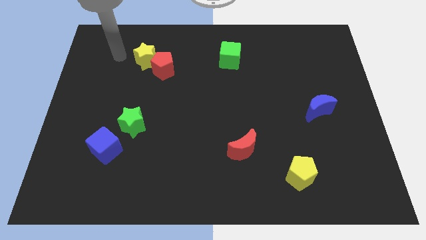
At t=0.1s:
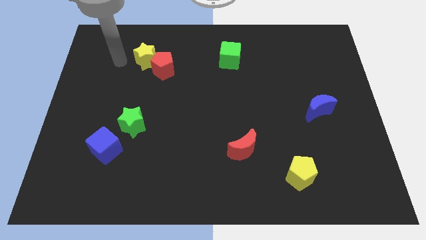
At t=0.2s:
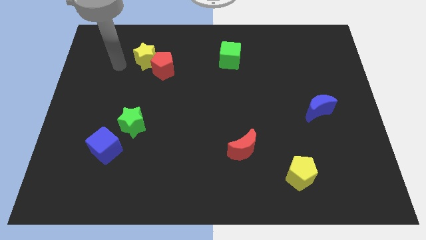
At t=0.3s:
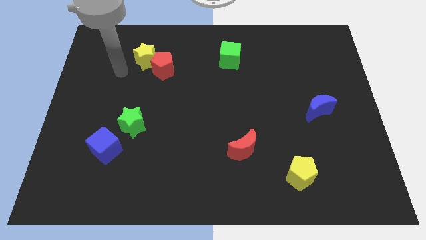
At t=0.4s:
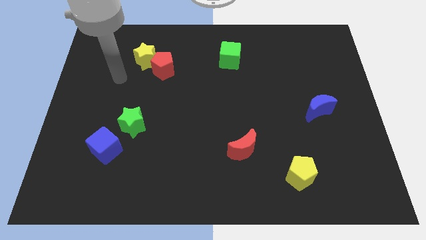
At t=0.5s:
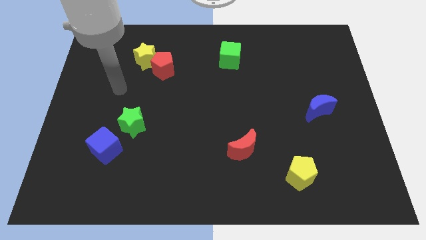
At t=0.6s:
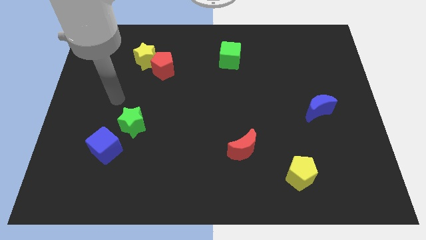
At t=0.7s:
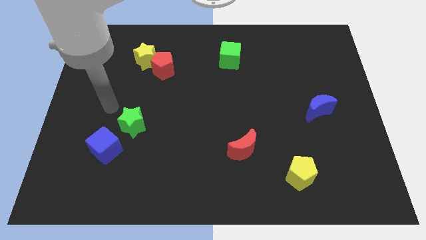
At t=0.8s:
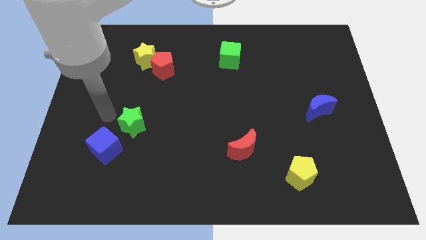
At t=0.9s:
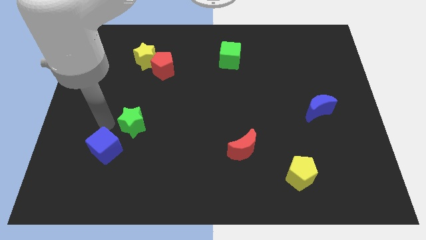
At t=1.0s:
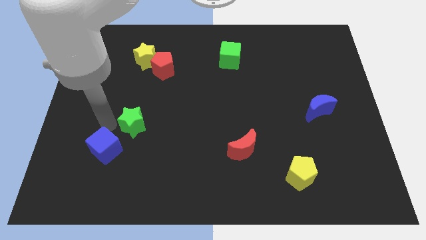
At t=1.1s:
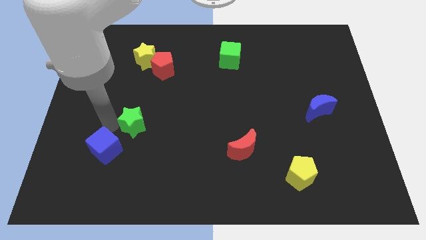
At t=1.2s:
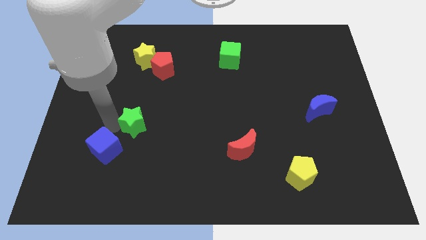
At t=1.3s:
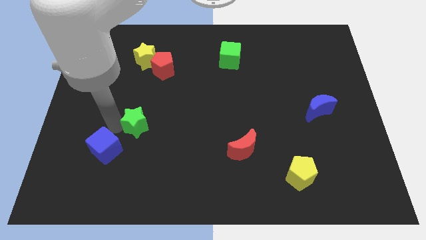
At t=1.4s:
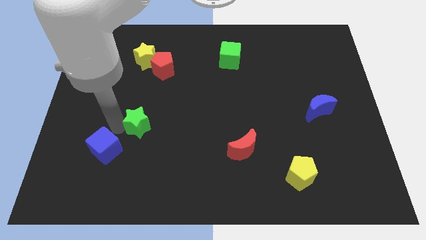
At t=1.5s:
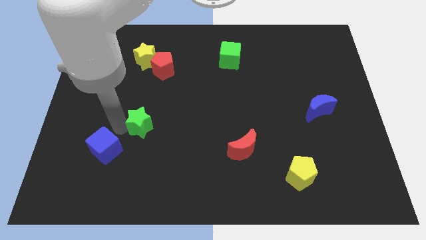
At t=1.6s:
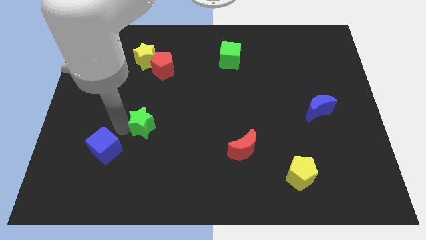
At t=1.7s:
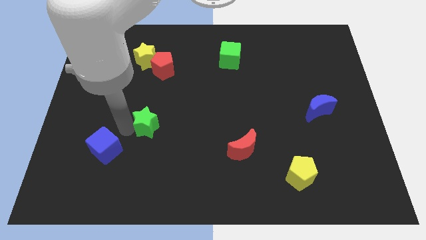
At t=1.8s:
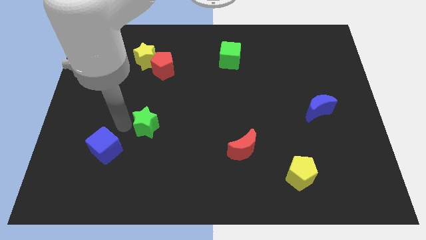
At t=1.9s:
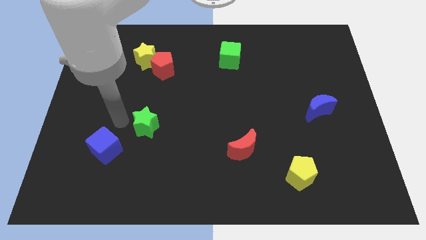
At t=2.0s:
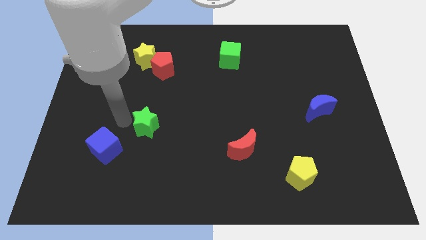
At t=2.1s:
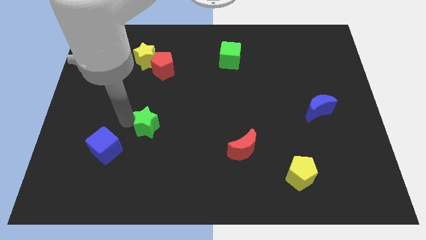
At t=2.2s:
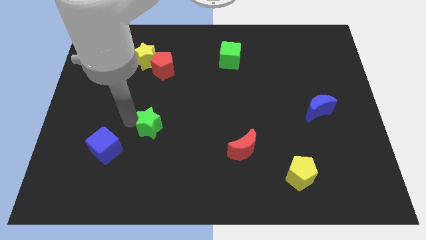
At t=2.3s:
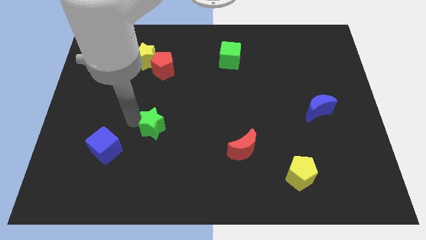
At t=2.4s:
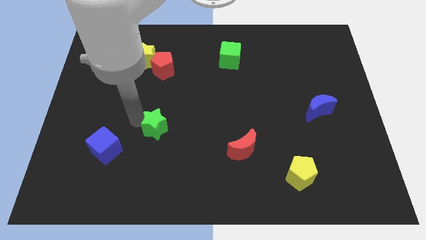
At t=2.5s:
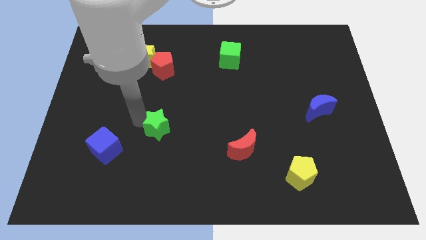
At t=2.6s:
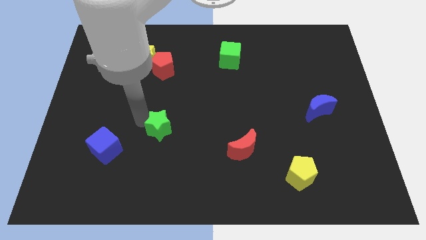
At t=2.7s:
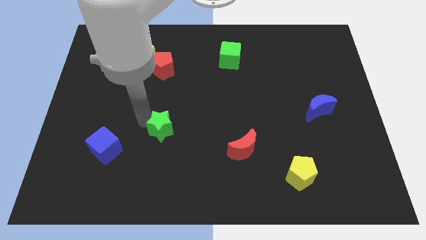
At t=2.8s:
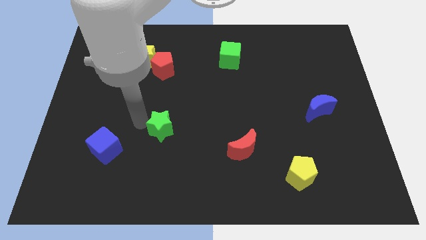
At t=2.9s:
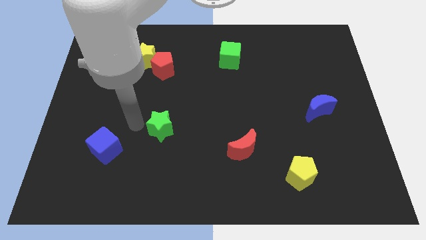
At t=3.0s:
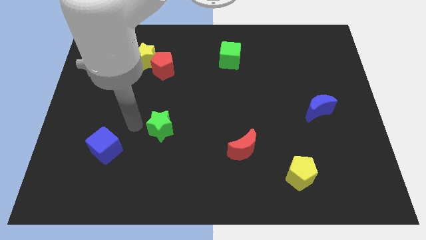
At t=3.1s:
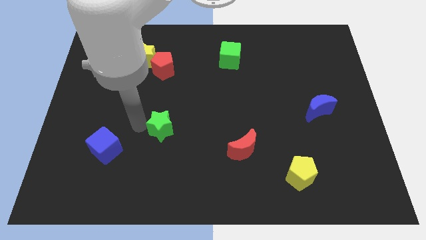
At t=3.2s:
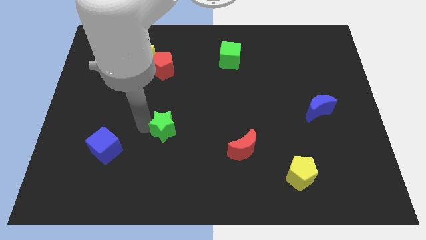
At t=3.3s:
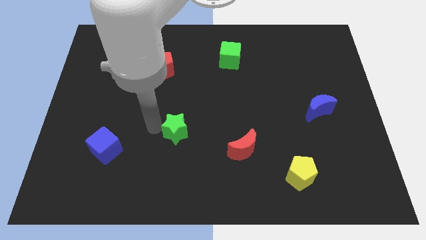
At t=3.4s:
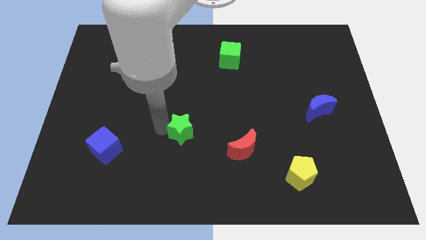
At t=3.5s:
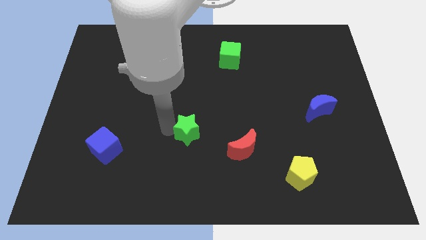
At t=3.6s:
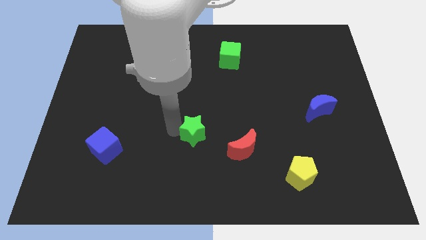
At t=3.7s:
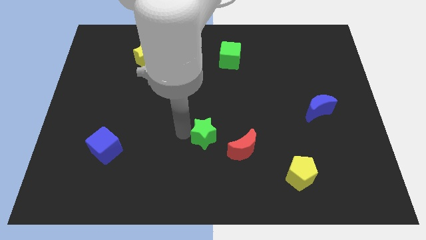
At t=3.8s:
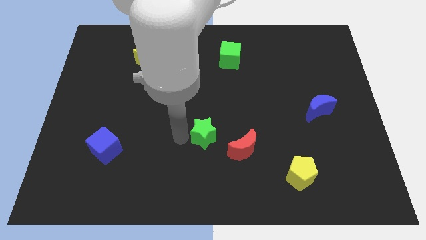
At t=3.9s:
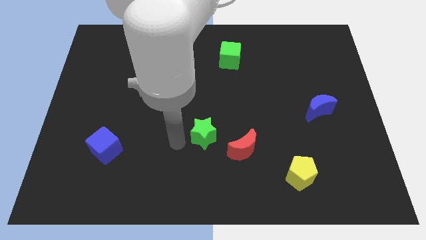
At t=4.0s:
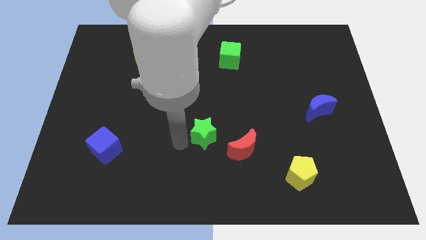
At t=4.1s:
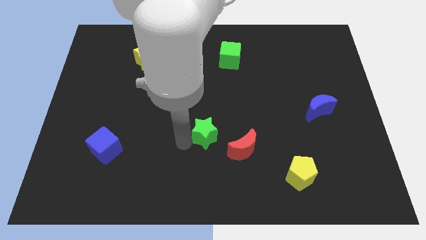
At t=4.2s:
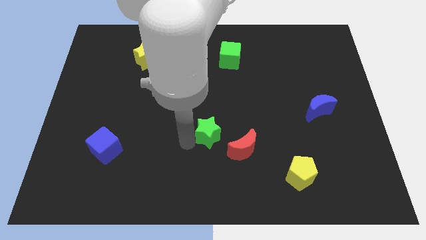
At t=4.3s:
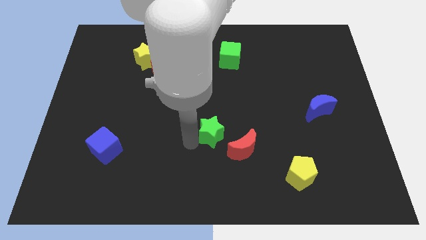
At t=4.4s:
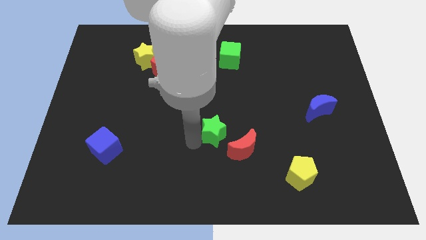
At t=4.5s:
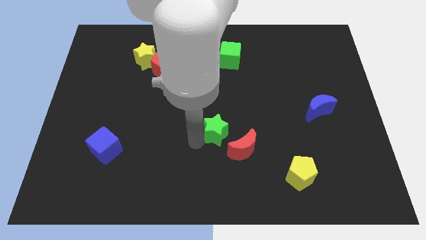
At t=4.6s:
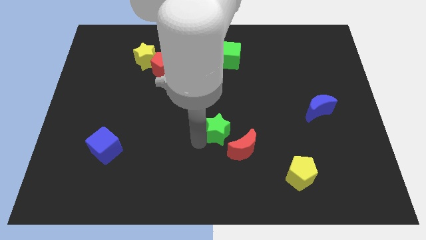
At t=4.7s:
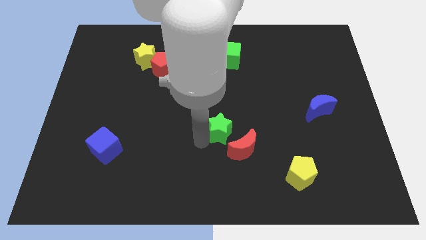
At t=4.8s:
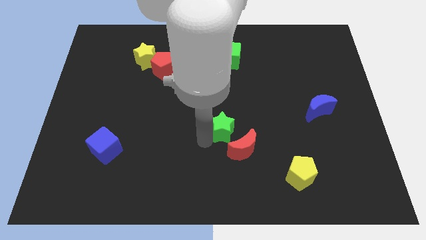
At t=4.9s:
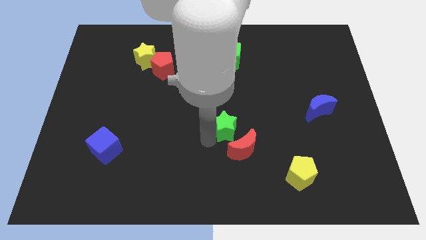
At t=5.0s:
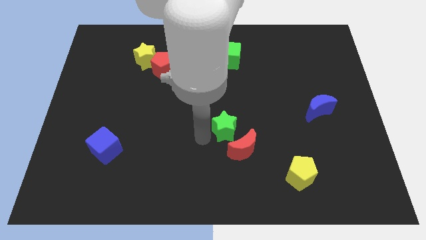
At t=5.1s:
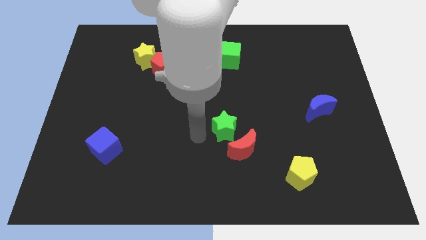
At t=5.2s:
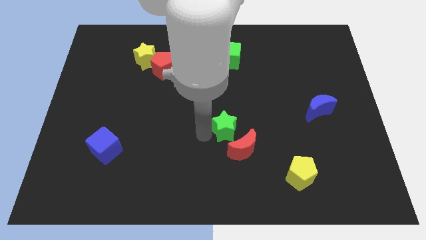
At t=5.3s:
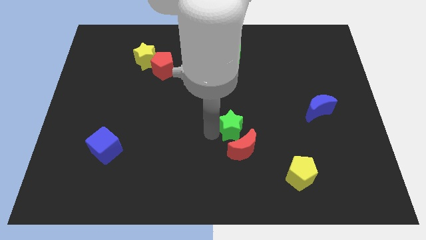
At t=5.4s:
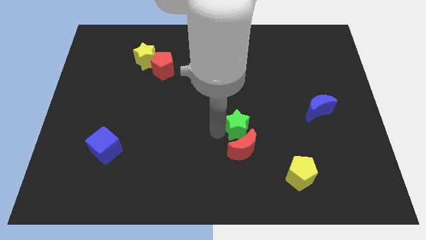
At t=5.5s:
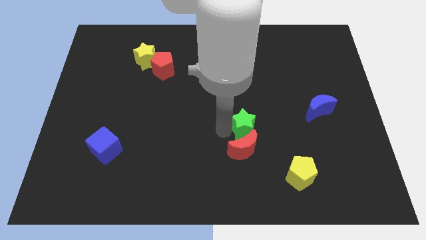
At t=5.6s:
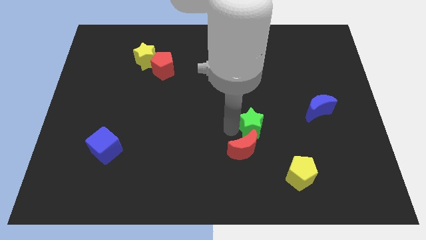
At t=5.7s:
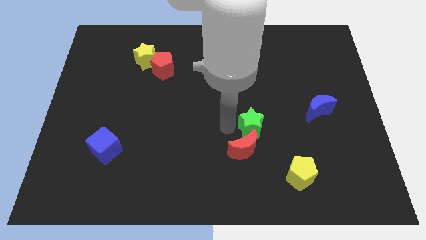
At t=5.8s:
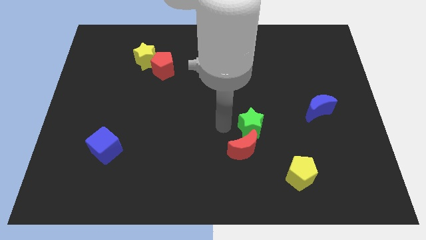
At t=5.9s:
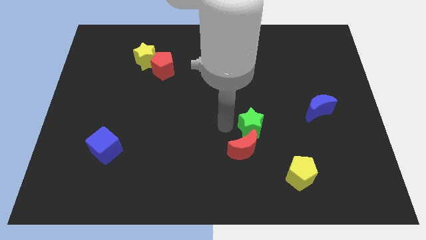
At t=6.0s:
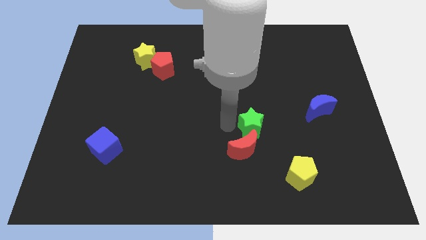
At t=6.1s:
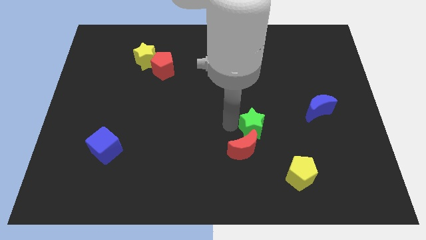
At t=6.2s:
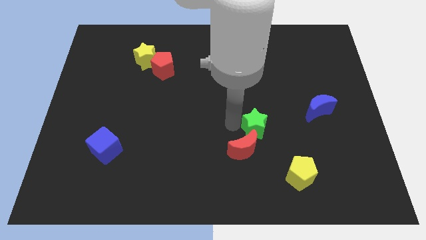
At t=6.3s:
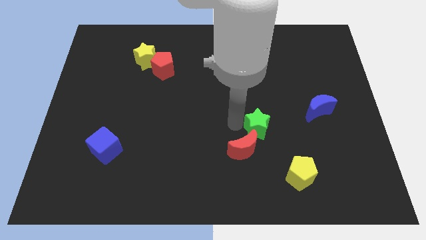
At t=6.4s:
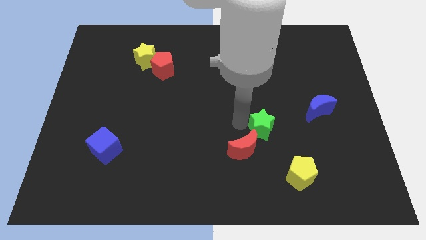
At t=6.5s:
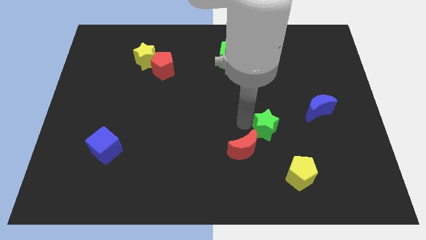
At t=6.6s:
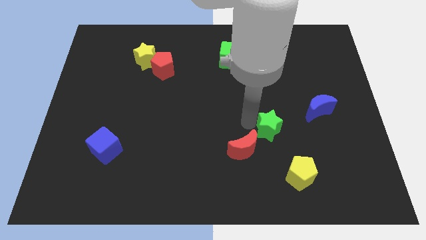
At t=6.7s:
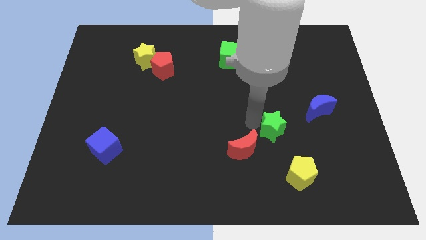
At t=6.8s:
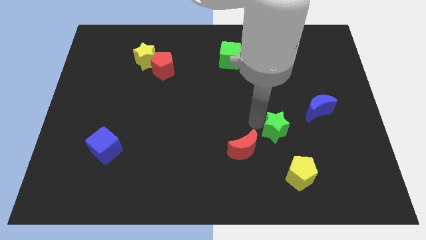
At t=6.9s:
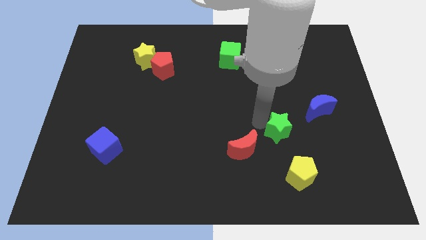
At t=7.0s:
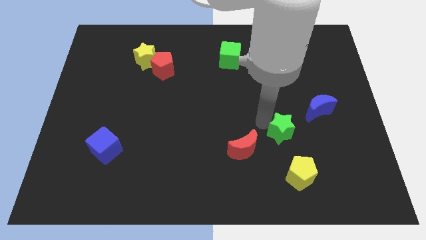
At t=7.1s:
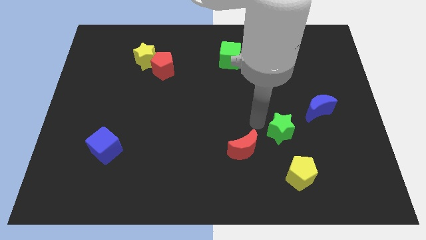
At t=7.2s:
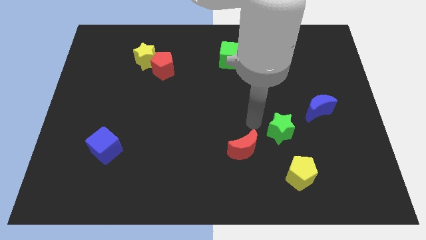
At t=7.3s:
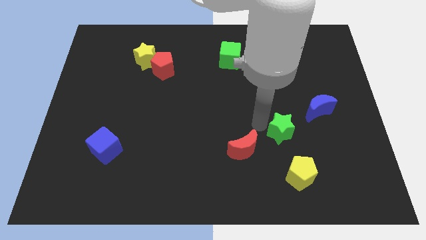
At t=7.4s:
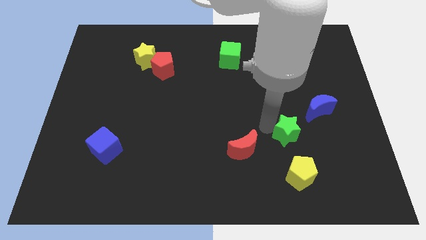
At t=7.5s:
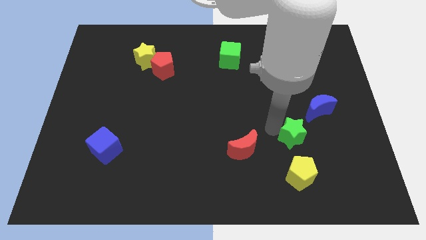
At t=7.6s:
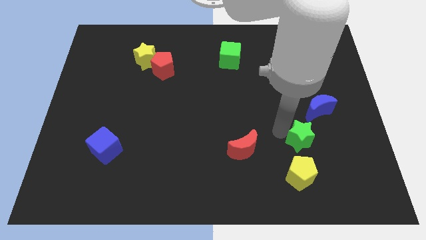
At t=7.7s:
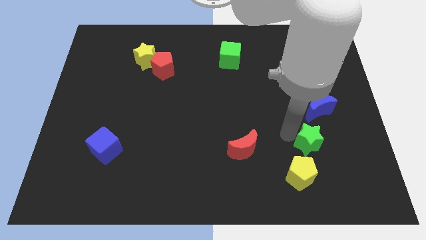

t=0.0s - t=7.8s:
slide the green star to the bottom of the blue moon

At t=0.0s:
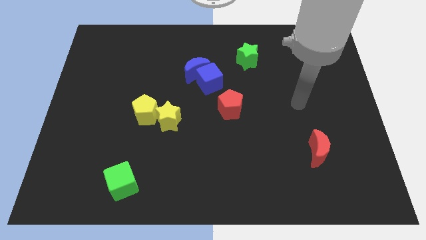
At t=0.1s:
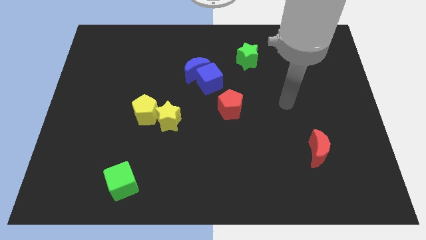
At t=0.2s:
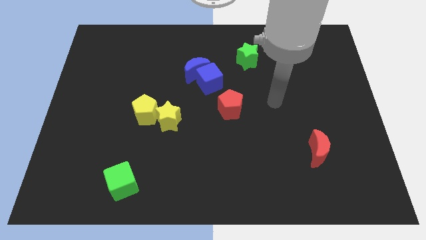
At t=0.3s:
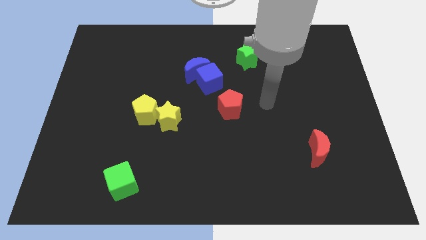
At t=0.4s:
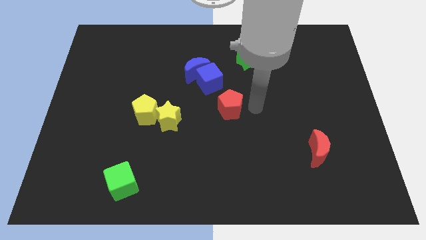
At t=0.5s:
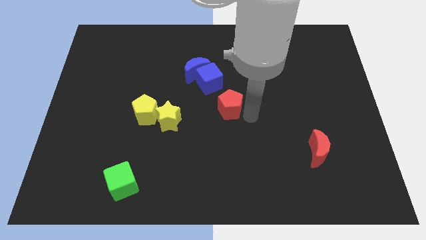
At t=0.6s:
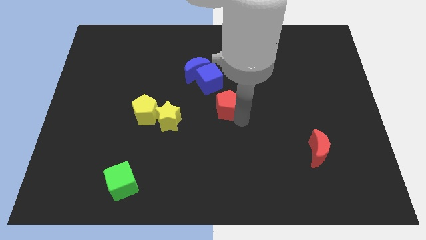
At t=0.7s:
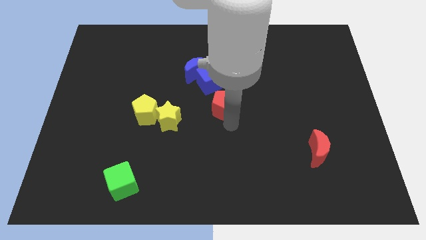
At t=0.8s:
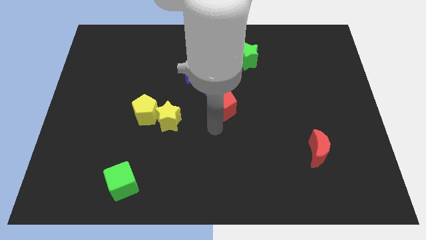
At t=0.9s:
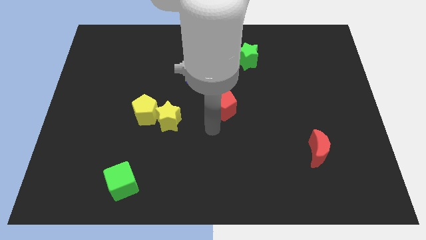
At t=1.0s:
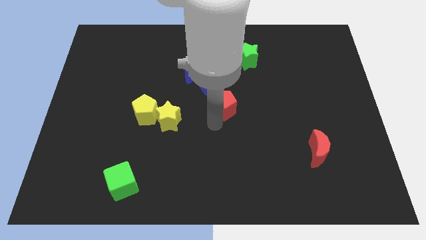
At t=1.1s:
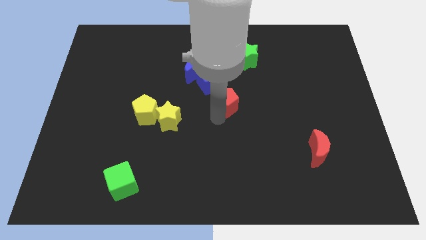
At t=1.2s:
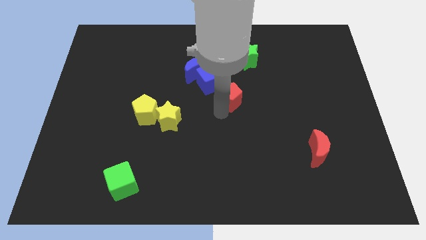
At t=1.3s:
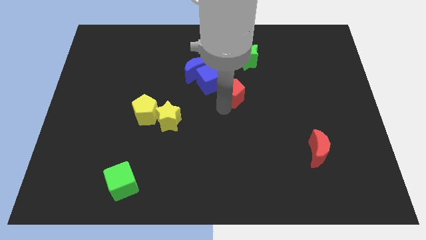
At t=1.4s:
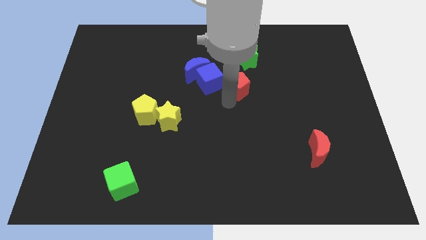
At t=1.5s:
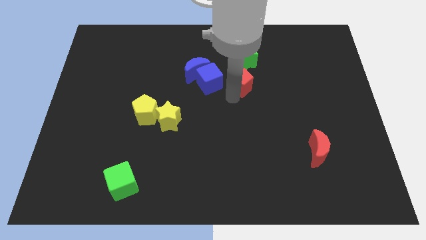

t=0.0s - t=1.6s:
move the red pentagon right of the blue moon
